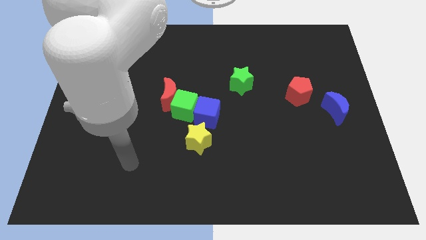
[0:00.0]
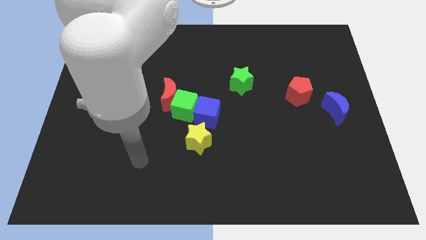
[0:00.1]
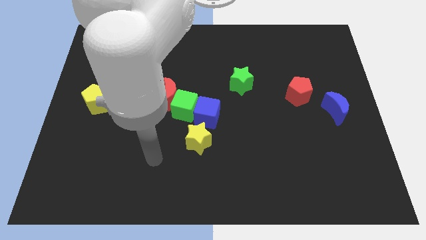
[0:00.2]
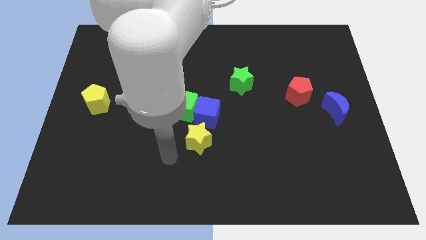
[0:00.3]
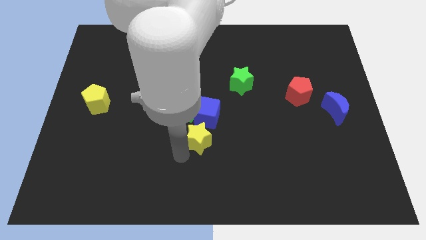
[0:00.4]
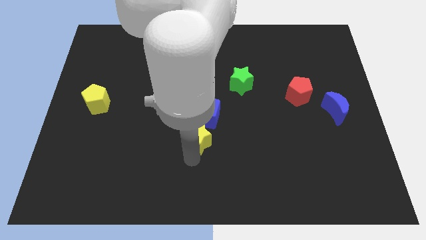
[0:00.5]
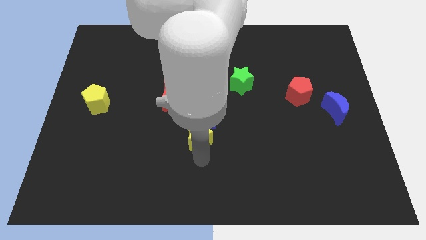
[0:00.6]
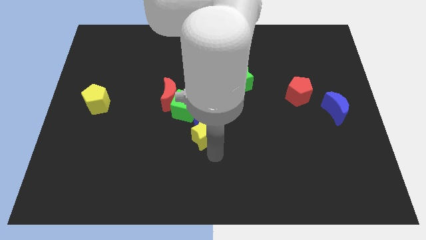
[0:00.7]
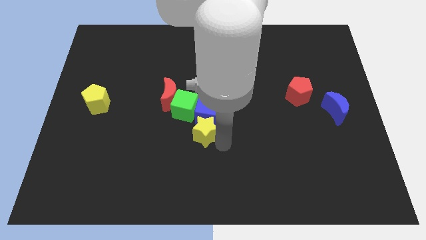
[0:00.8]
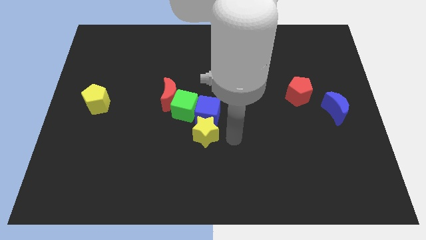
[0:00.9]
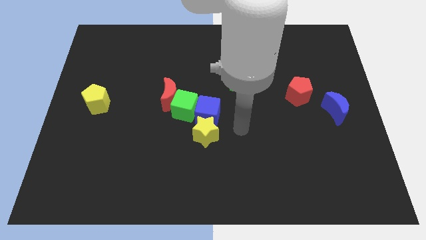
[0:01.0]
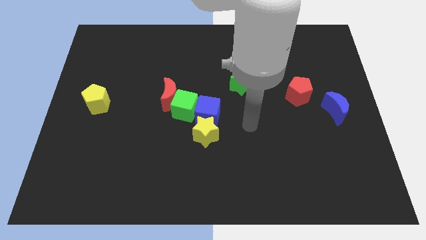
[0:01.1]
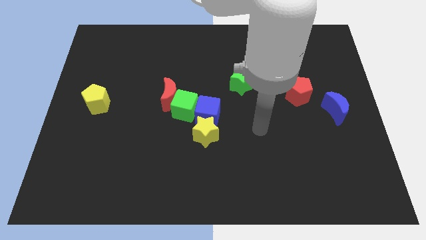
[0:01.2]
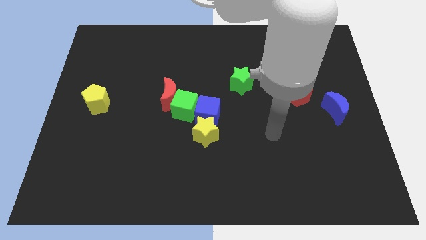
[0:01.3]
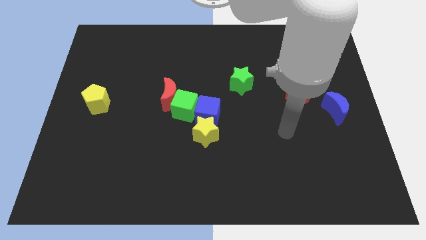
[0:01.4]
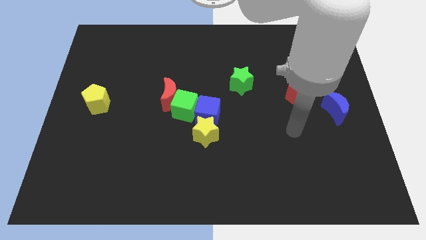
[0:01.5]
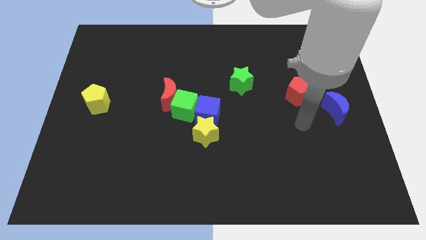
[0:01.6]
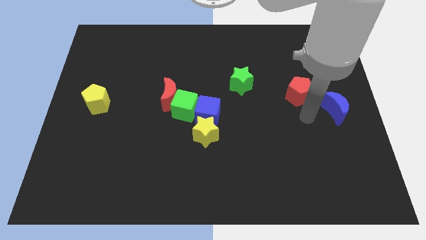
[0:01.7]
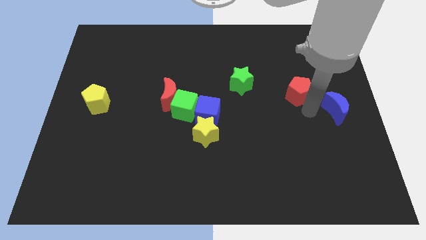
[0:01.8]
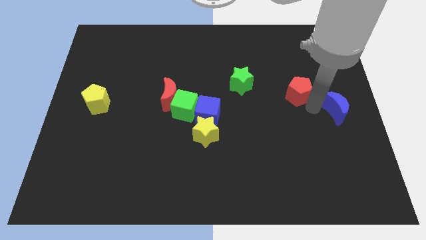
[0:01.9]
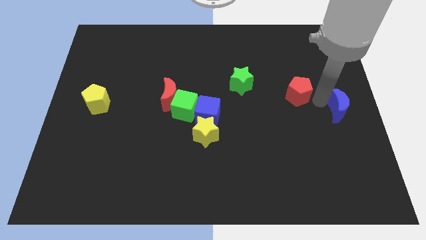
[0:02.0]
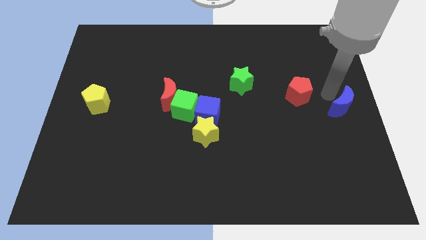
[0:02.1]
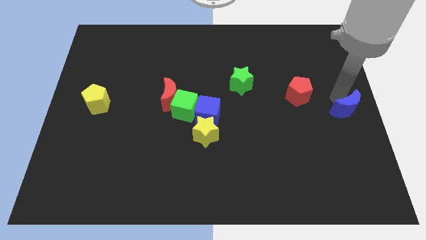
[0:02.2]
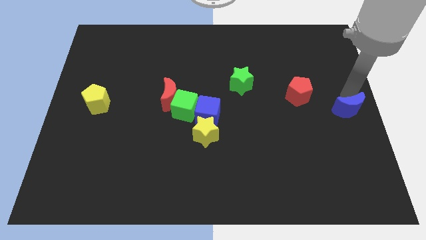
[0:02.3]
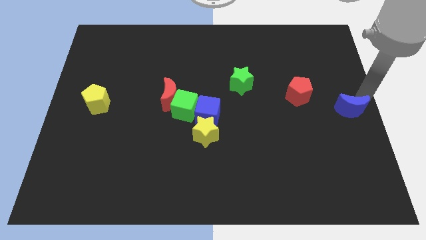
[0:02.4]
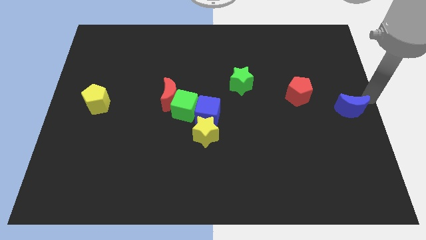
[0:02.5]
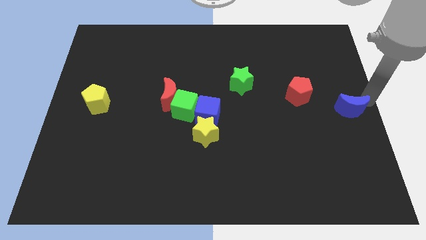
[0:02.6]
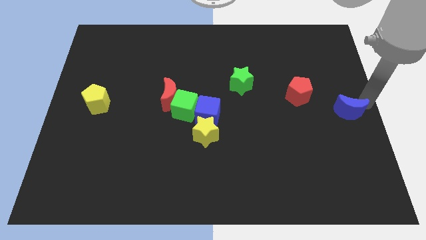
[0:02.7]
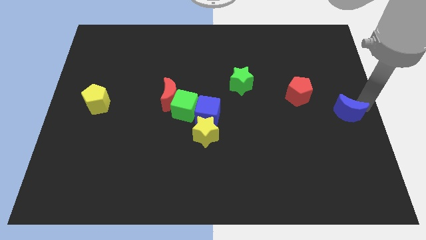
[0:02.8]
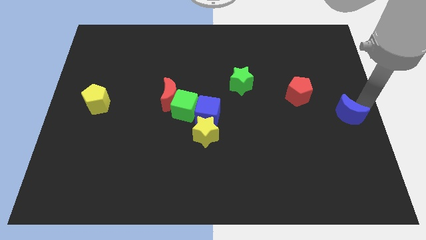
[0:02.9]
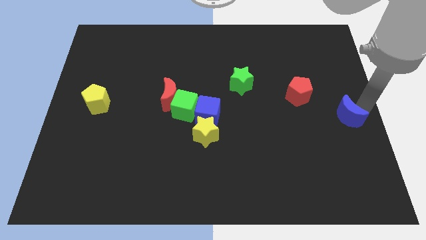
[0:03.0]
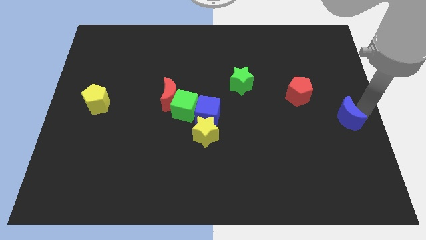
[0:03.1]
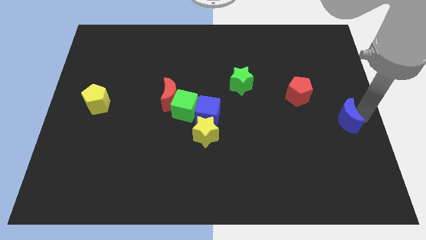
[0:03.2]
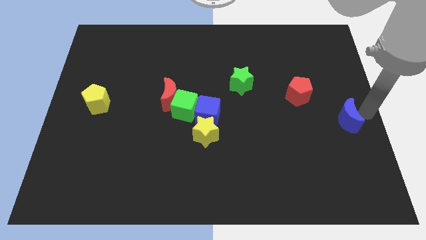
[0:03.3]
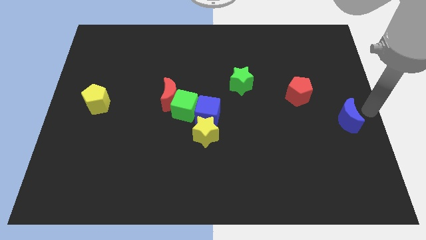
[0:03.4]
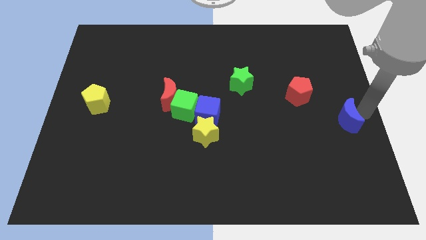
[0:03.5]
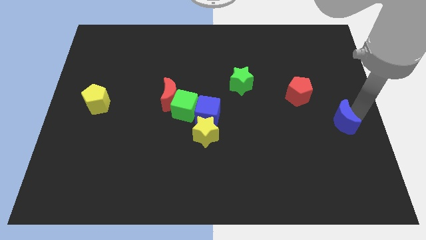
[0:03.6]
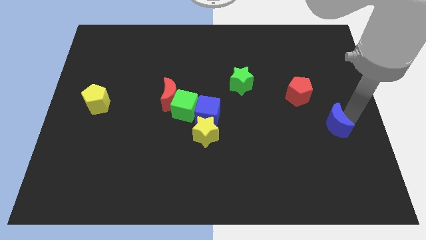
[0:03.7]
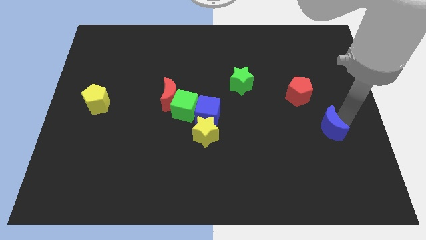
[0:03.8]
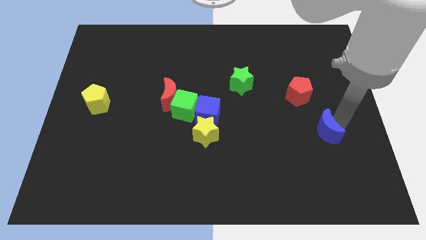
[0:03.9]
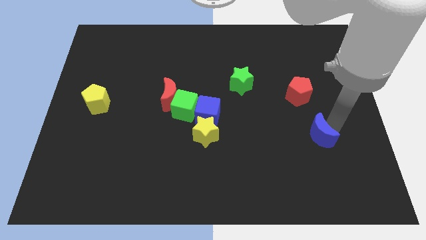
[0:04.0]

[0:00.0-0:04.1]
slightly slide the blue moon downwards and to the left

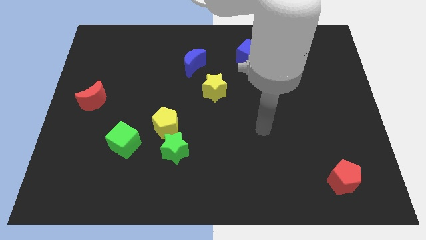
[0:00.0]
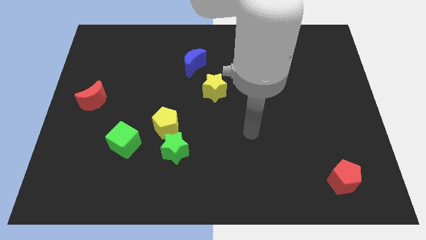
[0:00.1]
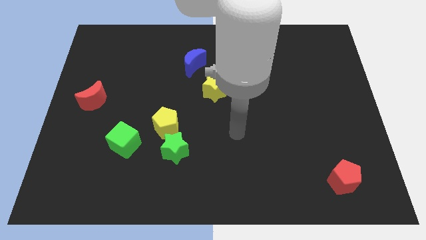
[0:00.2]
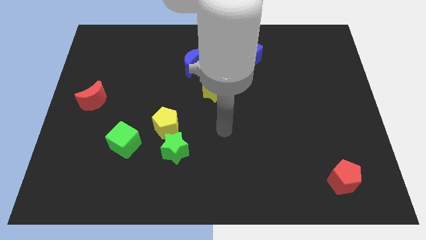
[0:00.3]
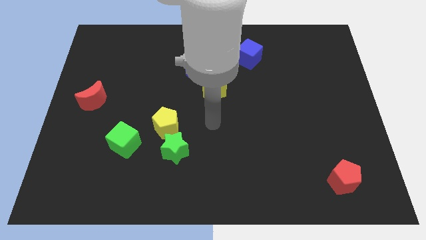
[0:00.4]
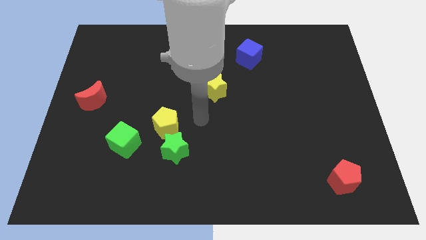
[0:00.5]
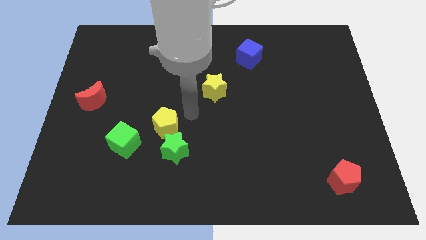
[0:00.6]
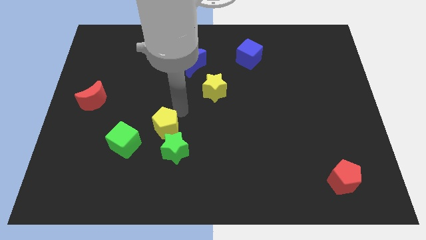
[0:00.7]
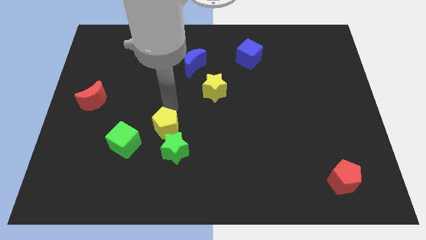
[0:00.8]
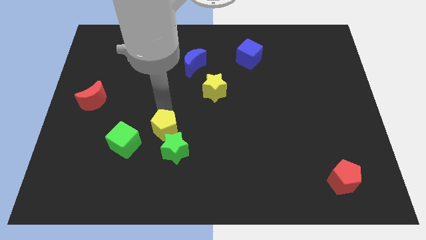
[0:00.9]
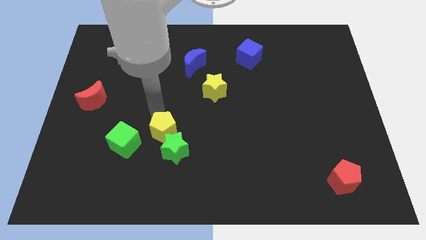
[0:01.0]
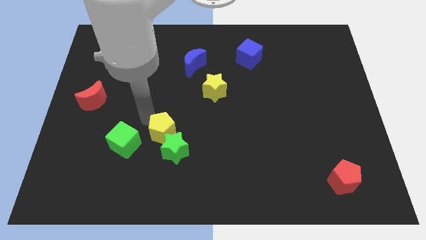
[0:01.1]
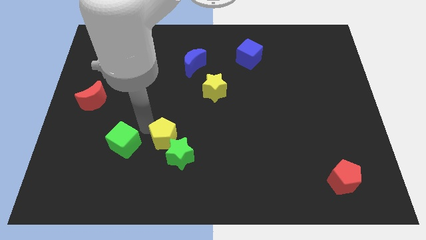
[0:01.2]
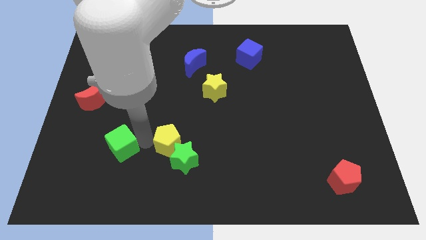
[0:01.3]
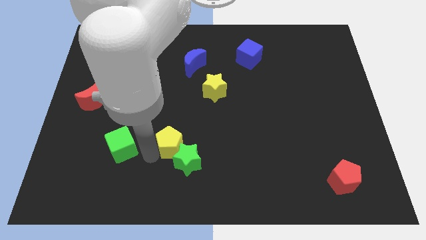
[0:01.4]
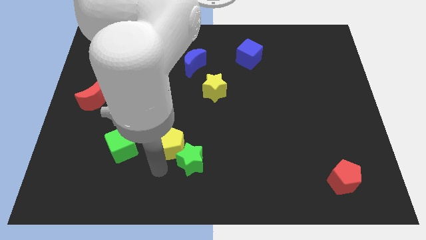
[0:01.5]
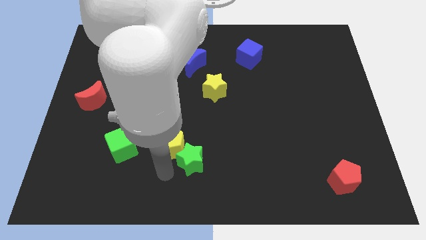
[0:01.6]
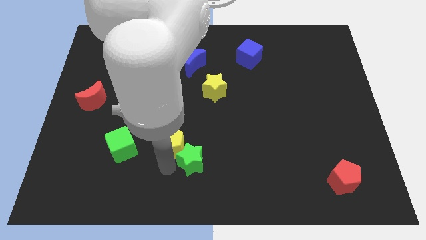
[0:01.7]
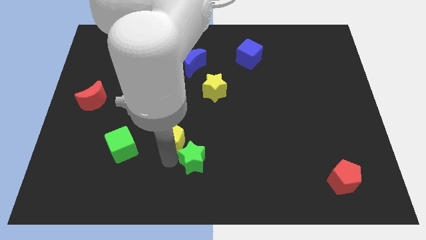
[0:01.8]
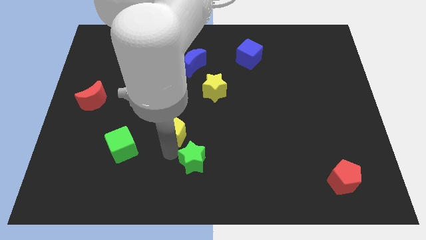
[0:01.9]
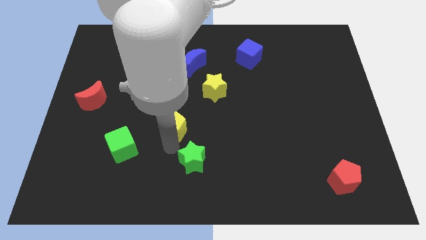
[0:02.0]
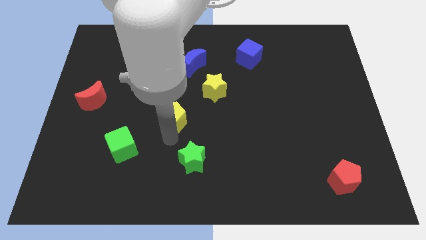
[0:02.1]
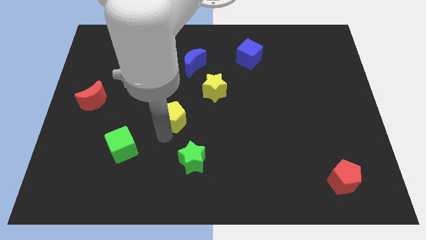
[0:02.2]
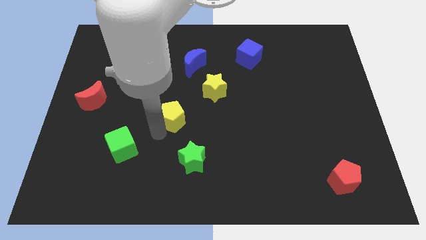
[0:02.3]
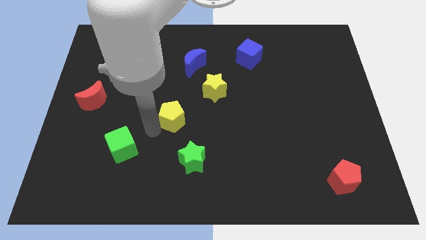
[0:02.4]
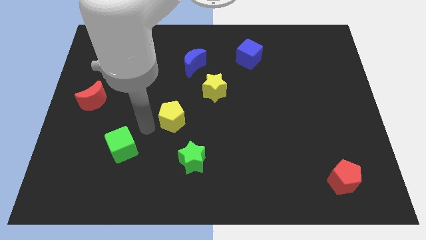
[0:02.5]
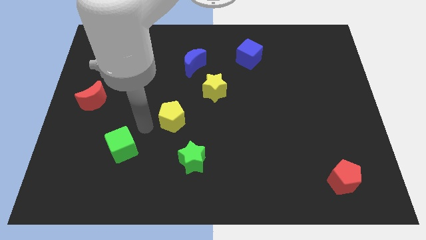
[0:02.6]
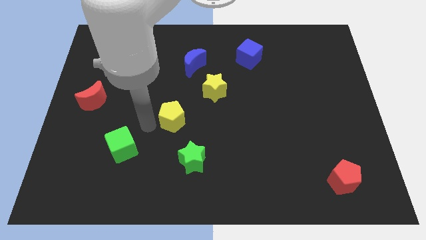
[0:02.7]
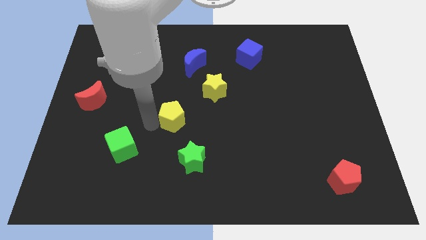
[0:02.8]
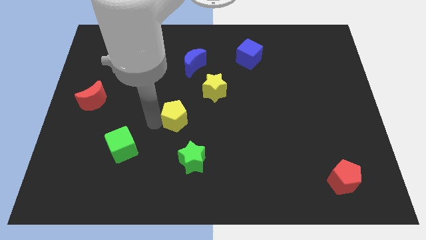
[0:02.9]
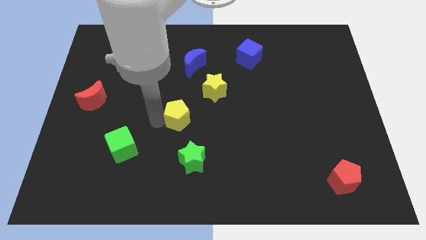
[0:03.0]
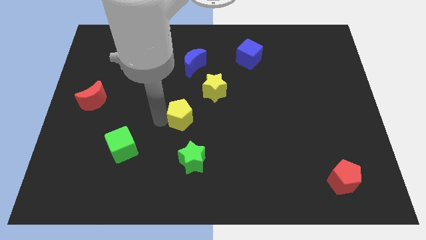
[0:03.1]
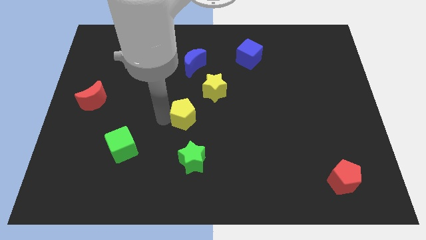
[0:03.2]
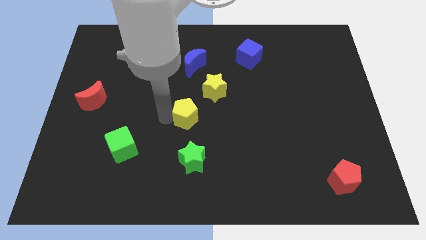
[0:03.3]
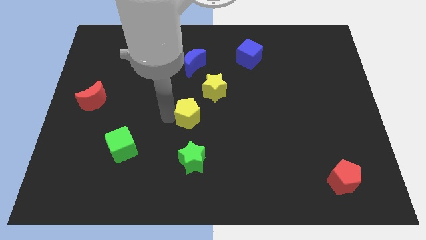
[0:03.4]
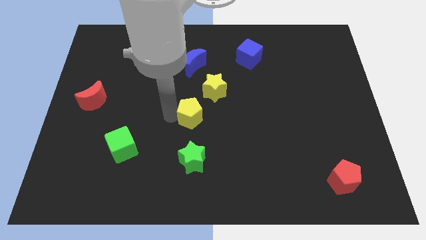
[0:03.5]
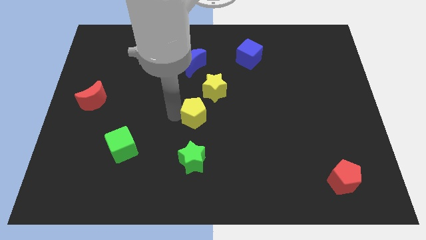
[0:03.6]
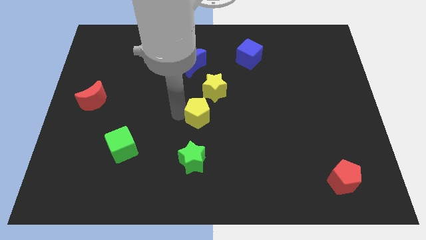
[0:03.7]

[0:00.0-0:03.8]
move the yellow pentagon a bit up and right

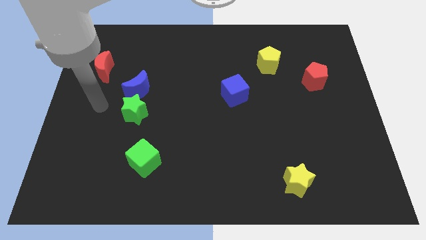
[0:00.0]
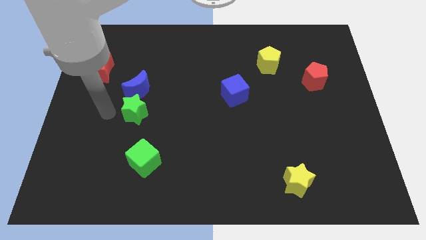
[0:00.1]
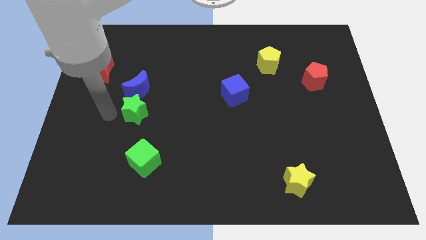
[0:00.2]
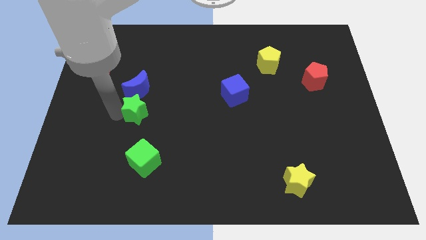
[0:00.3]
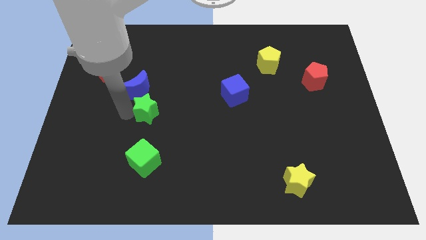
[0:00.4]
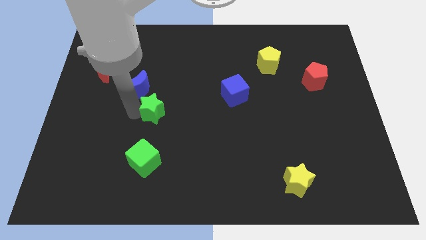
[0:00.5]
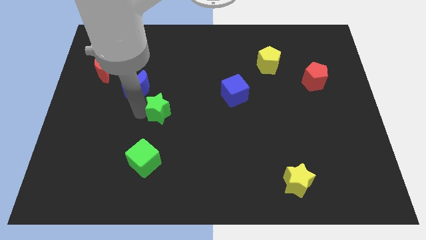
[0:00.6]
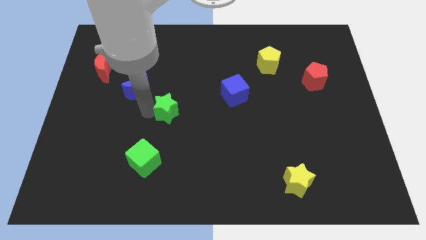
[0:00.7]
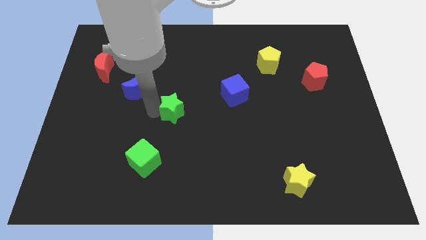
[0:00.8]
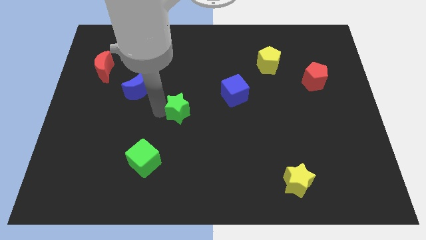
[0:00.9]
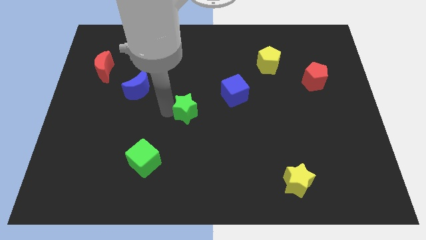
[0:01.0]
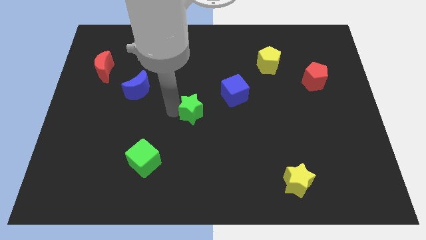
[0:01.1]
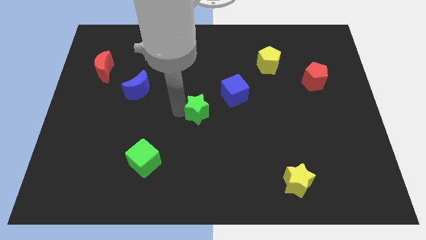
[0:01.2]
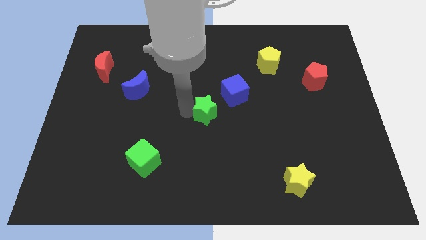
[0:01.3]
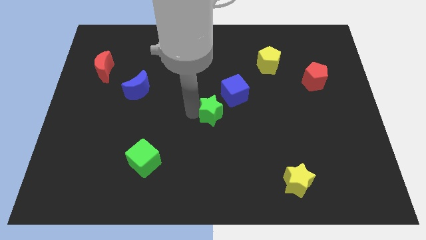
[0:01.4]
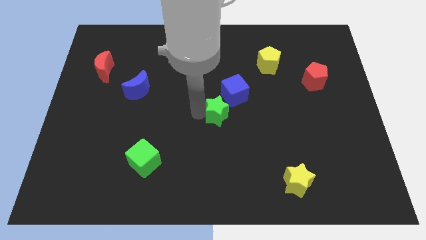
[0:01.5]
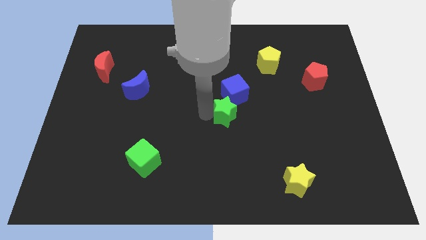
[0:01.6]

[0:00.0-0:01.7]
move the green star right
